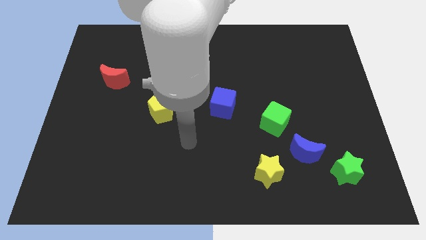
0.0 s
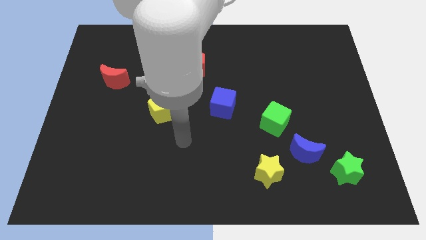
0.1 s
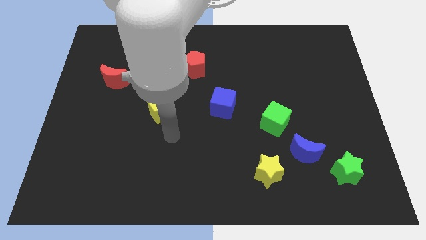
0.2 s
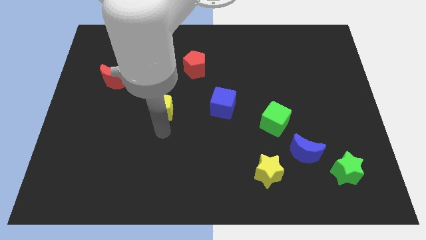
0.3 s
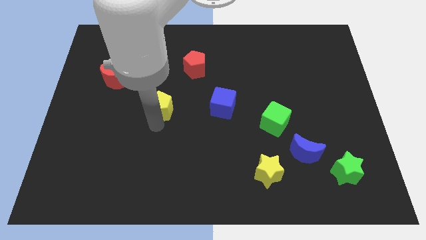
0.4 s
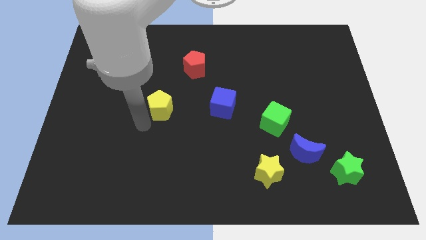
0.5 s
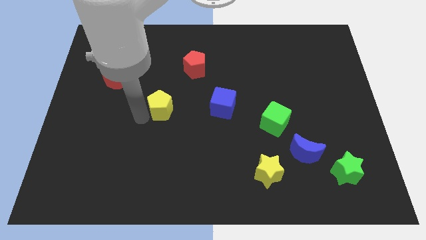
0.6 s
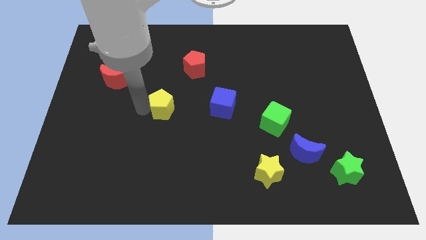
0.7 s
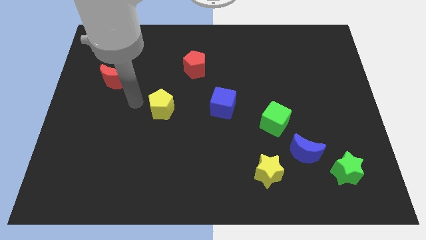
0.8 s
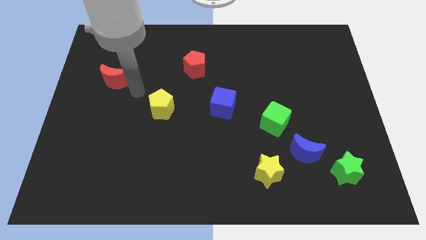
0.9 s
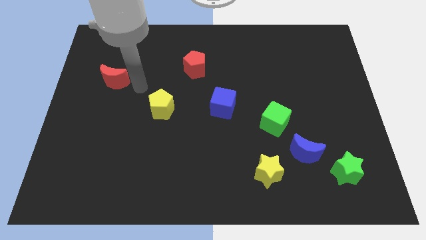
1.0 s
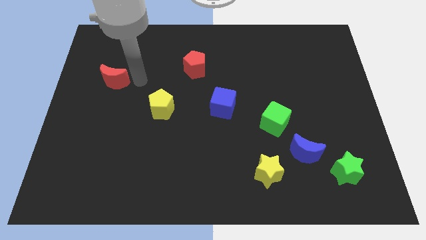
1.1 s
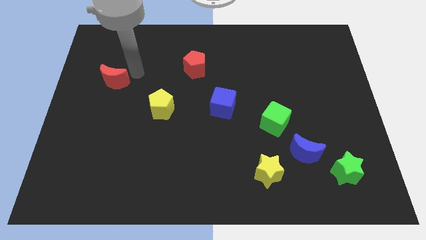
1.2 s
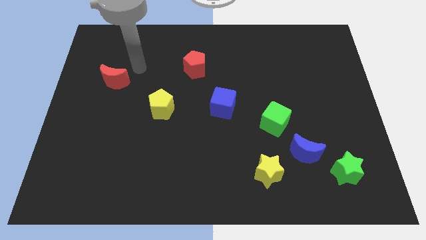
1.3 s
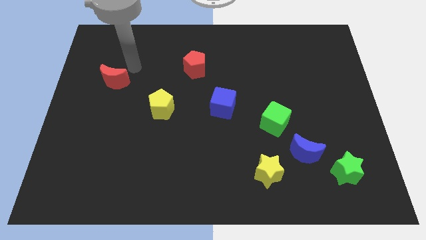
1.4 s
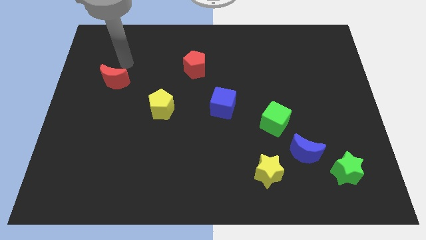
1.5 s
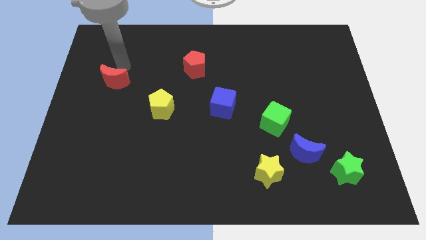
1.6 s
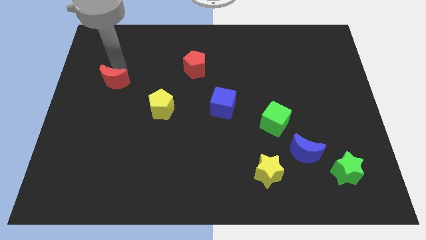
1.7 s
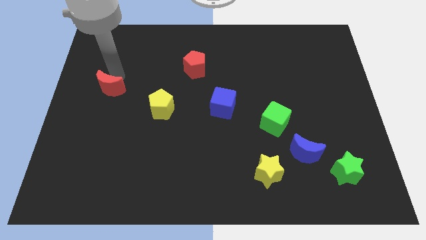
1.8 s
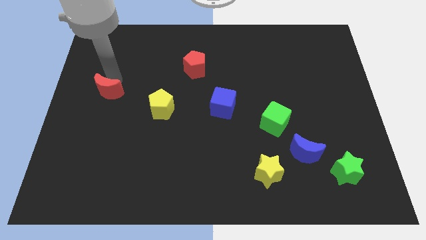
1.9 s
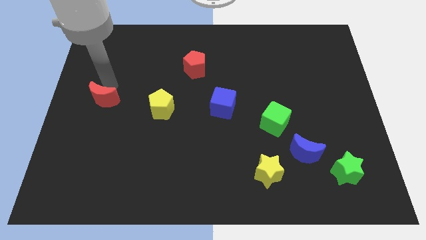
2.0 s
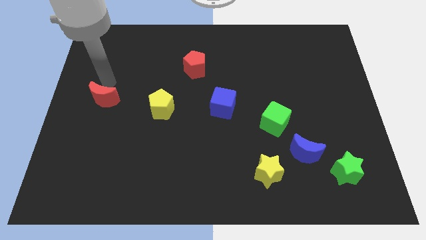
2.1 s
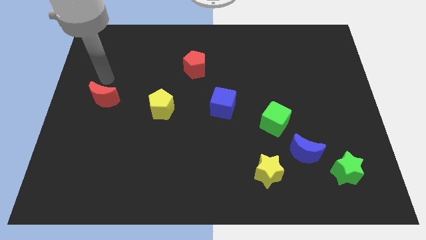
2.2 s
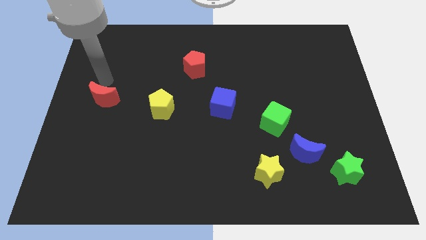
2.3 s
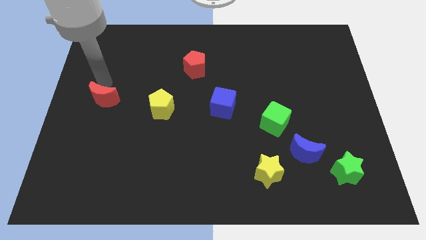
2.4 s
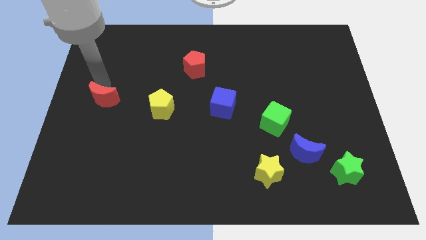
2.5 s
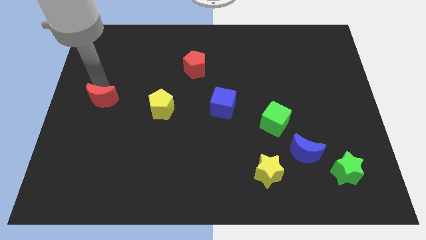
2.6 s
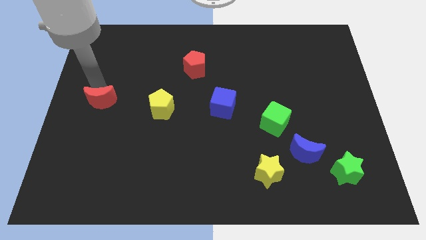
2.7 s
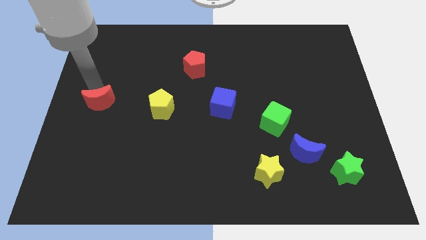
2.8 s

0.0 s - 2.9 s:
slide the red moon a little downwards

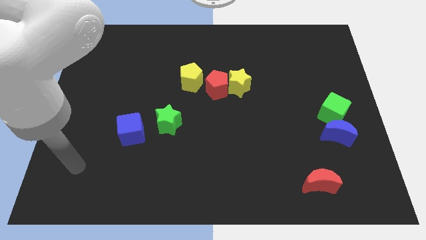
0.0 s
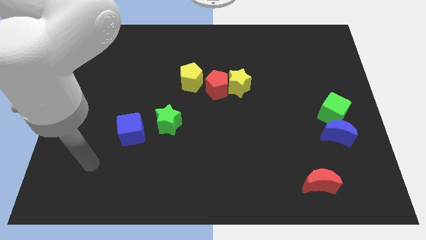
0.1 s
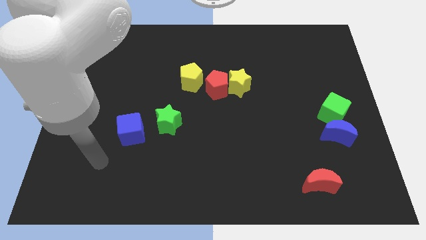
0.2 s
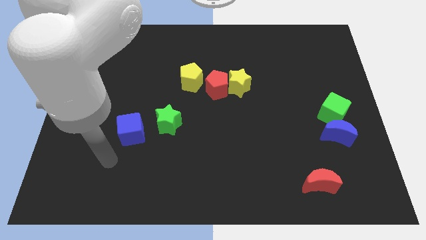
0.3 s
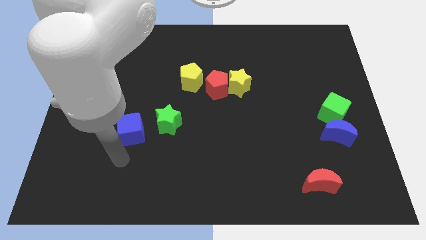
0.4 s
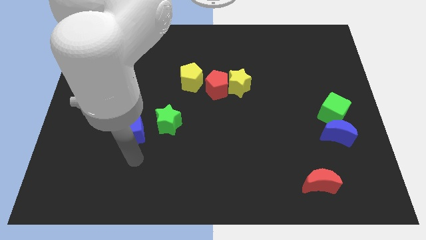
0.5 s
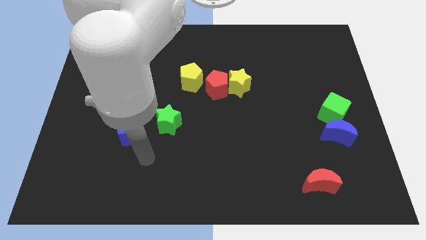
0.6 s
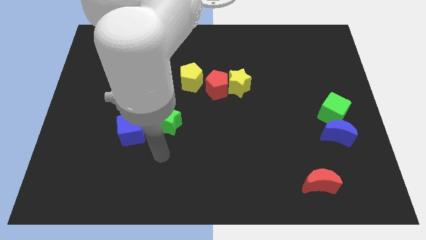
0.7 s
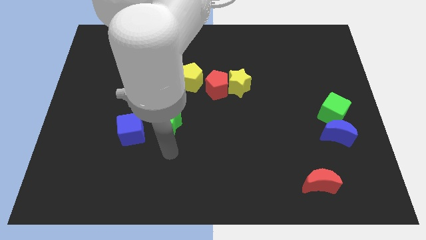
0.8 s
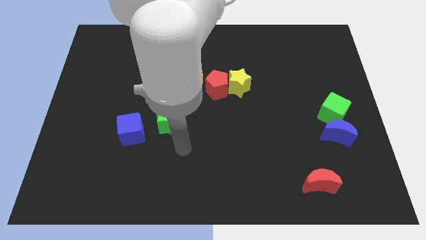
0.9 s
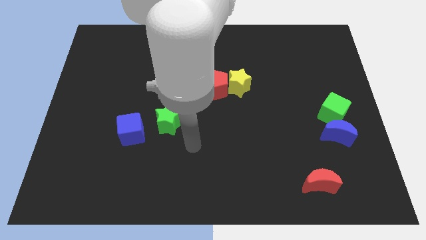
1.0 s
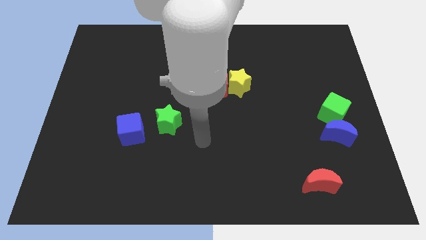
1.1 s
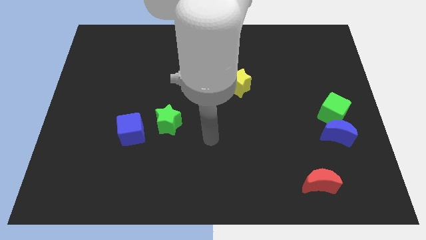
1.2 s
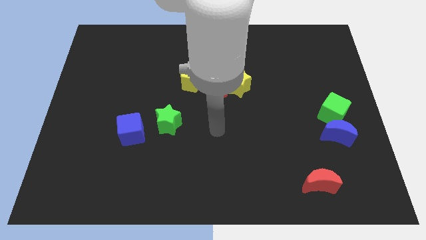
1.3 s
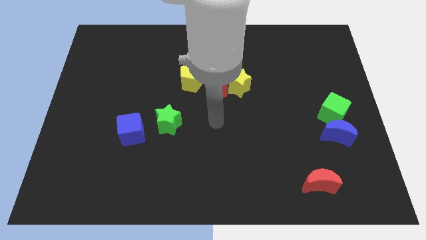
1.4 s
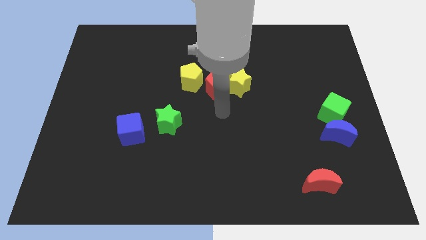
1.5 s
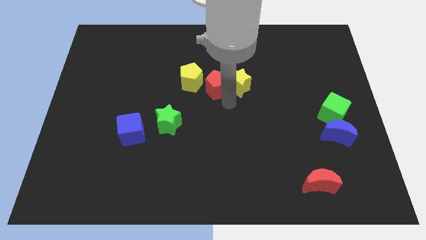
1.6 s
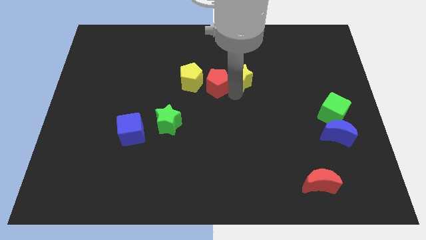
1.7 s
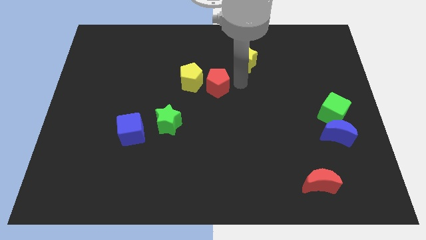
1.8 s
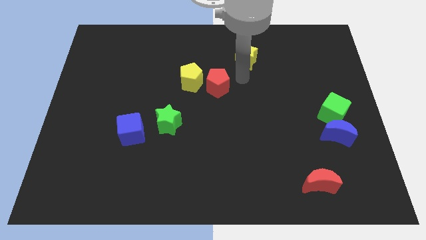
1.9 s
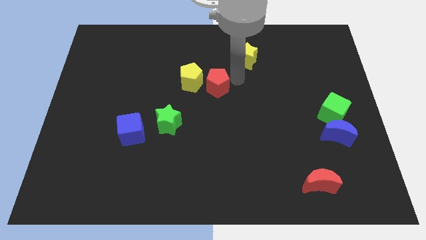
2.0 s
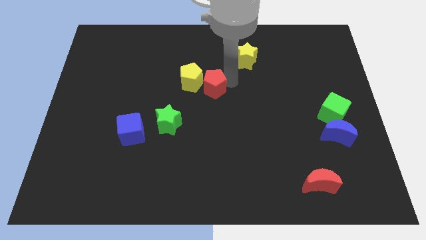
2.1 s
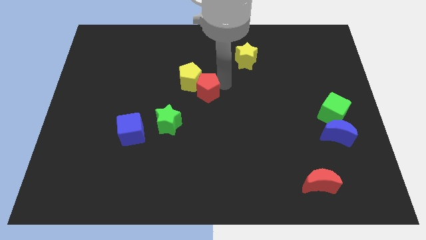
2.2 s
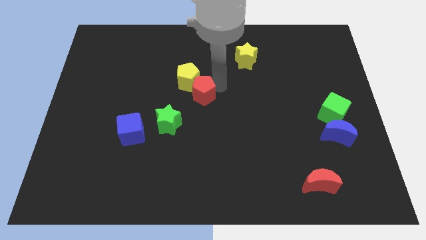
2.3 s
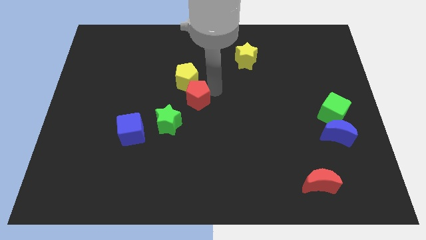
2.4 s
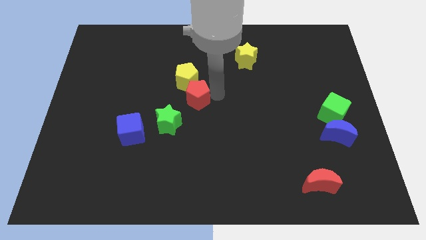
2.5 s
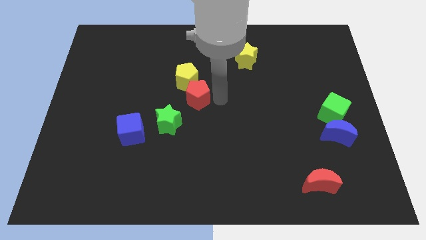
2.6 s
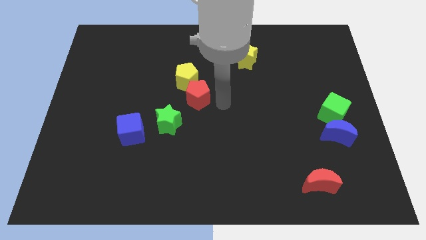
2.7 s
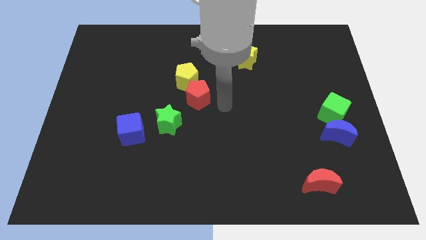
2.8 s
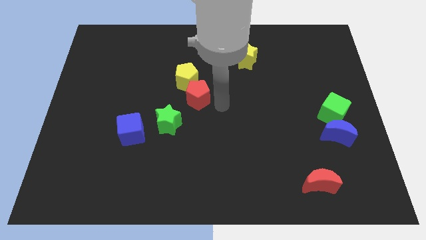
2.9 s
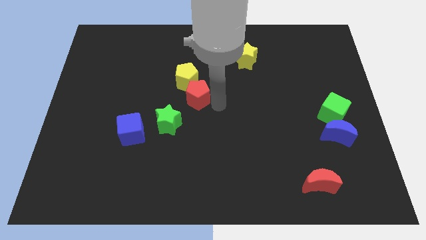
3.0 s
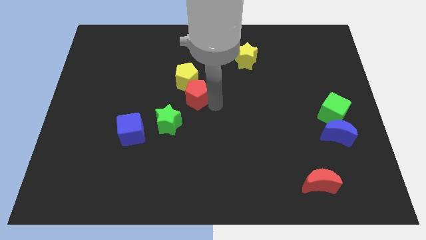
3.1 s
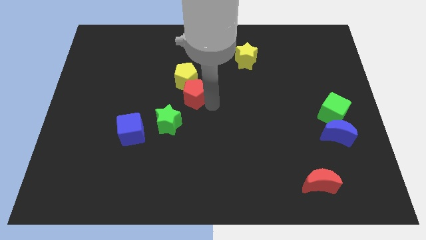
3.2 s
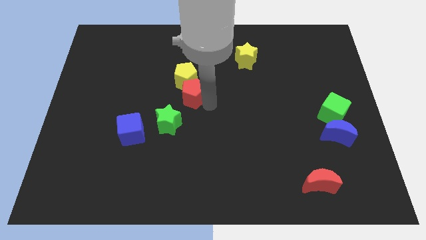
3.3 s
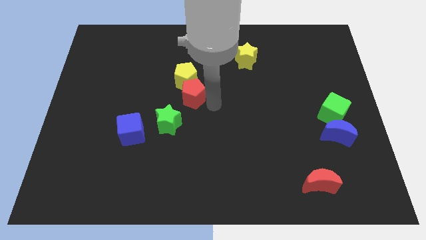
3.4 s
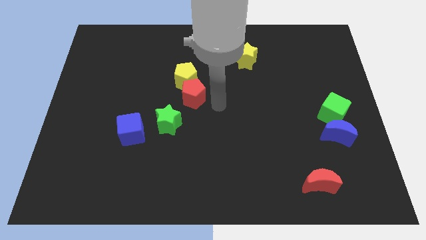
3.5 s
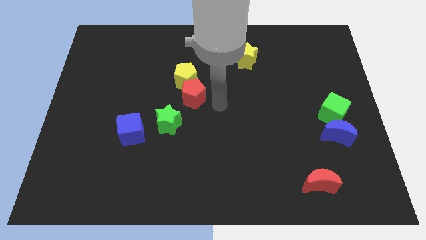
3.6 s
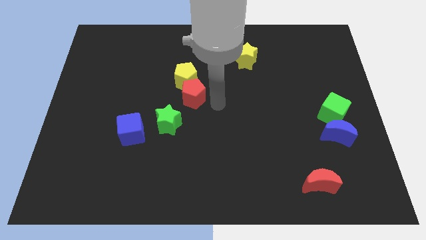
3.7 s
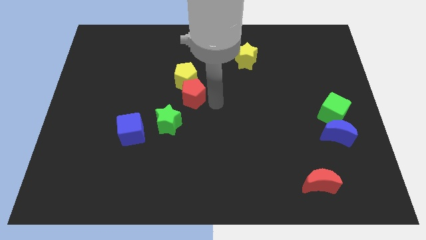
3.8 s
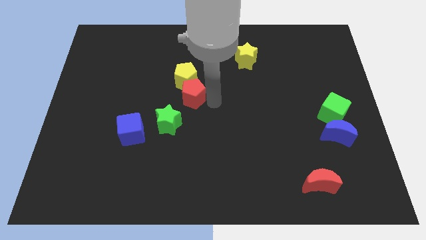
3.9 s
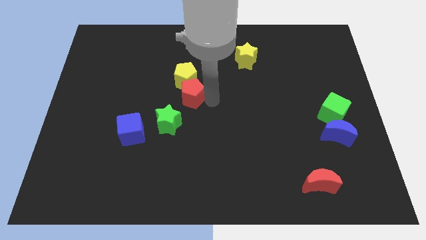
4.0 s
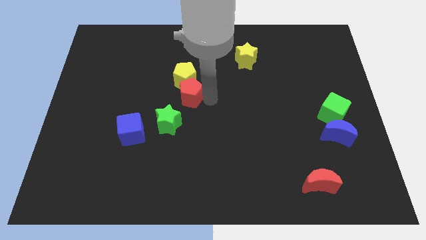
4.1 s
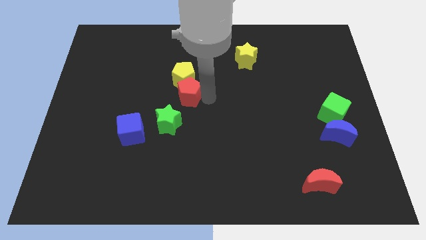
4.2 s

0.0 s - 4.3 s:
slightly push the red pentagon left

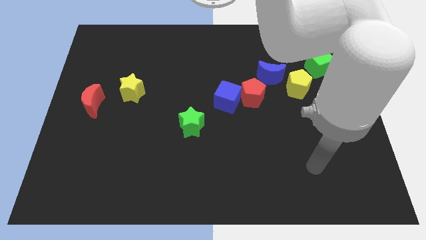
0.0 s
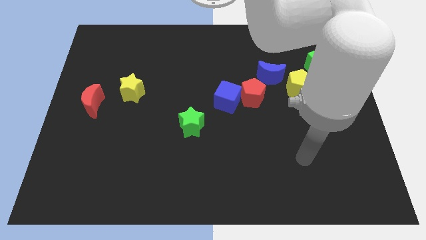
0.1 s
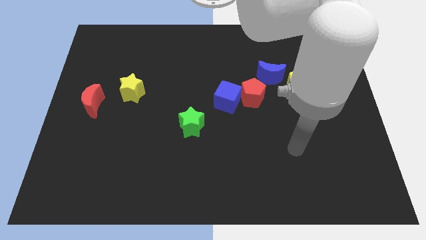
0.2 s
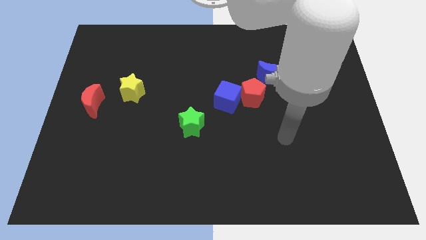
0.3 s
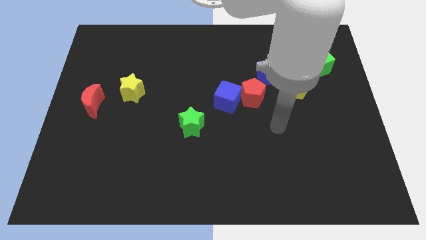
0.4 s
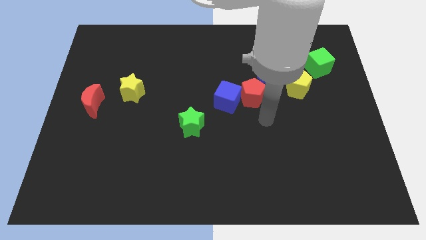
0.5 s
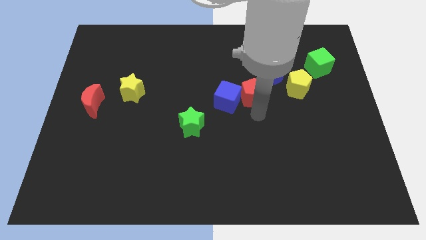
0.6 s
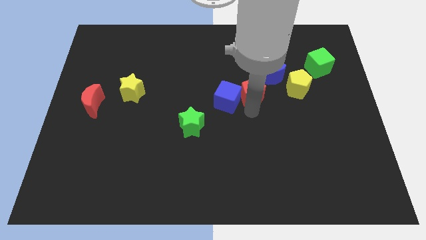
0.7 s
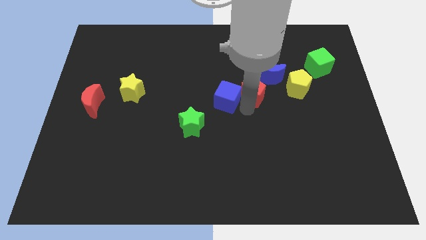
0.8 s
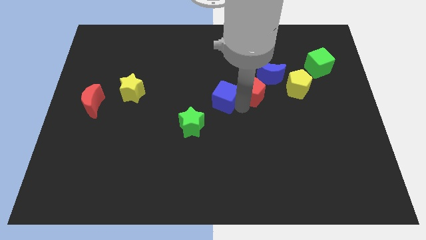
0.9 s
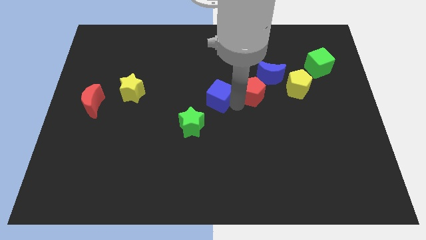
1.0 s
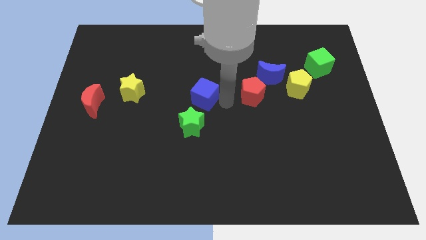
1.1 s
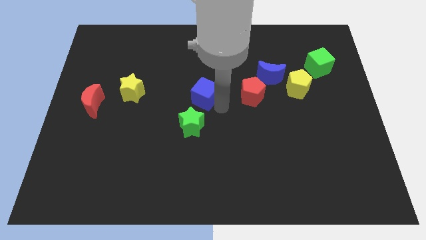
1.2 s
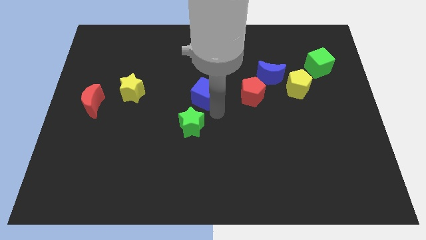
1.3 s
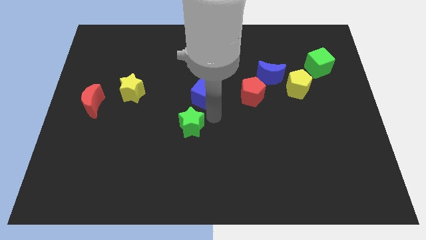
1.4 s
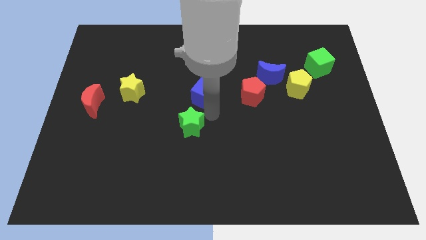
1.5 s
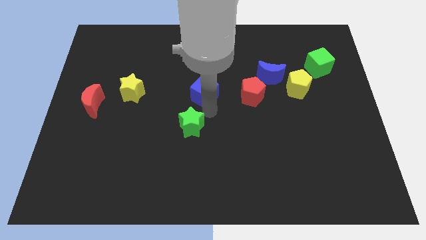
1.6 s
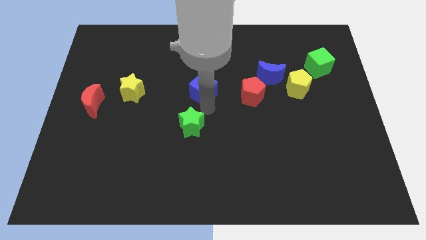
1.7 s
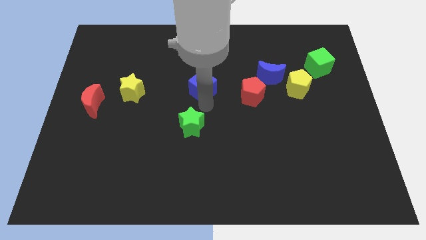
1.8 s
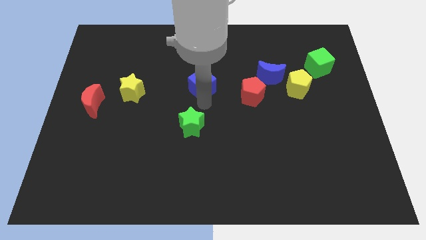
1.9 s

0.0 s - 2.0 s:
slightly push the blue cube up and then left
